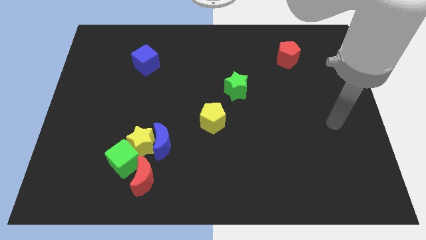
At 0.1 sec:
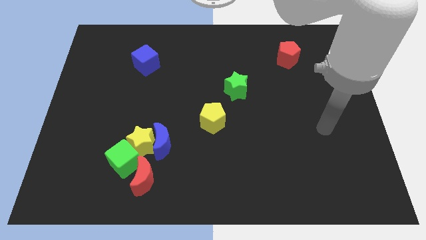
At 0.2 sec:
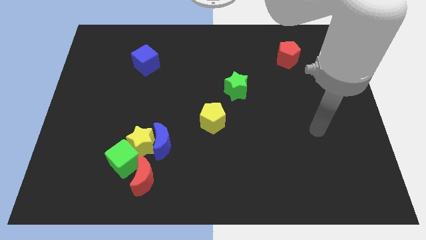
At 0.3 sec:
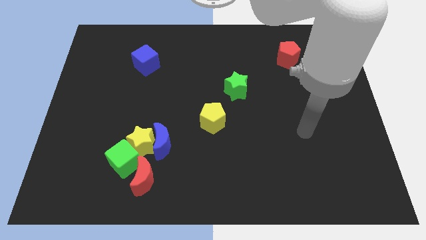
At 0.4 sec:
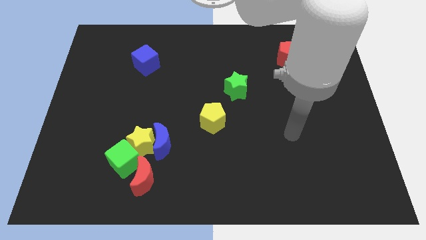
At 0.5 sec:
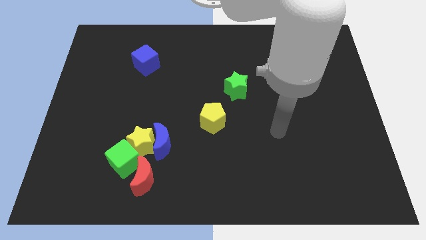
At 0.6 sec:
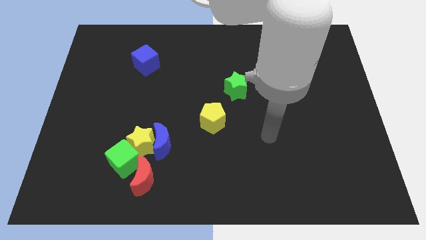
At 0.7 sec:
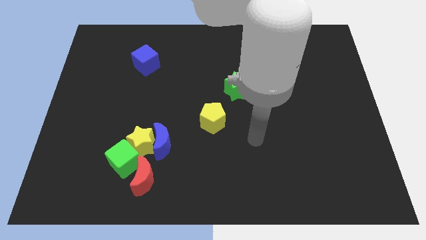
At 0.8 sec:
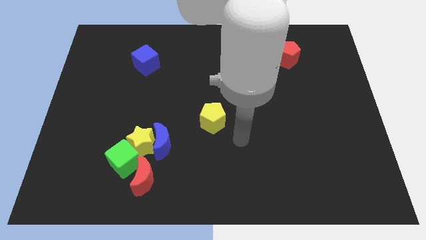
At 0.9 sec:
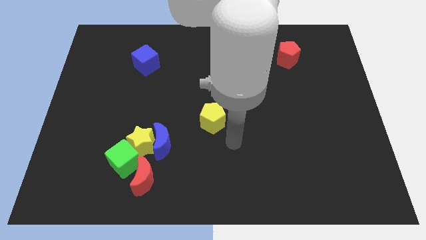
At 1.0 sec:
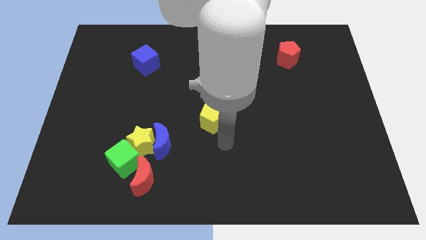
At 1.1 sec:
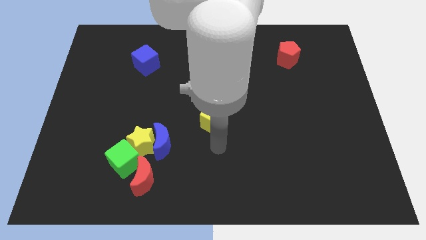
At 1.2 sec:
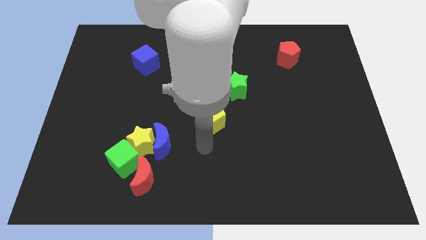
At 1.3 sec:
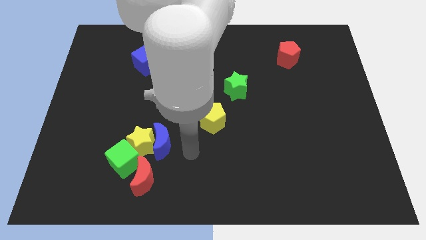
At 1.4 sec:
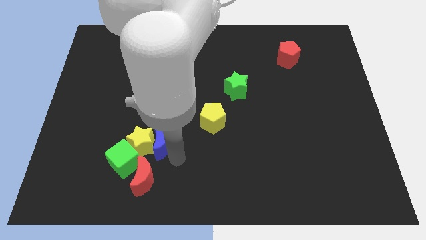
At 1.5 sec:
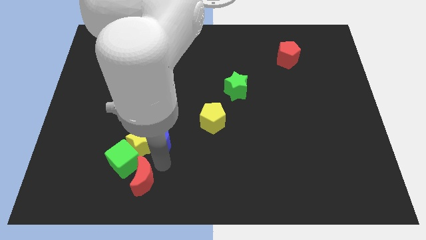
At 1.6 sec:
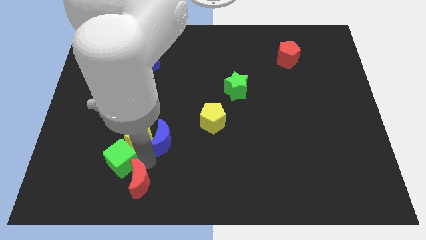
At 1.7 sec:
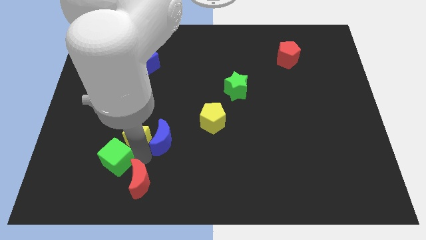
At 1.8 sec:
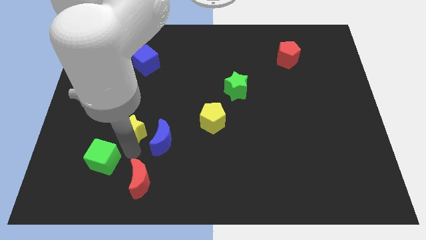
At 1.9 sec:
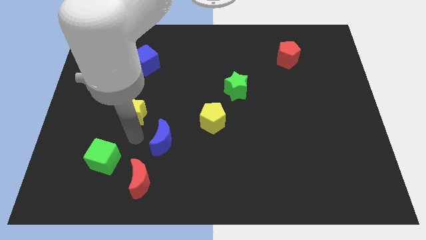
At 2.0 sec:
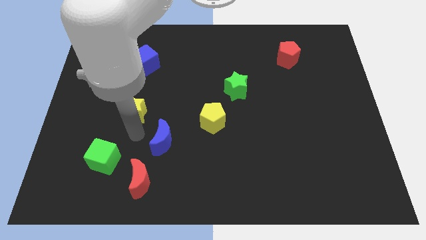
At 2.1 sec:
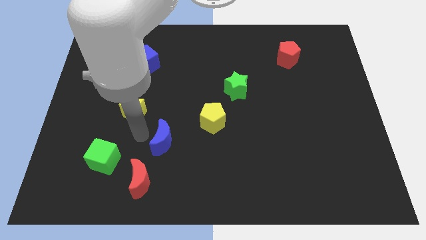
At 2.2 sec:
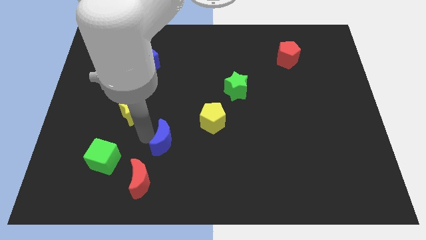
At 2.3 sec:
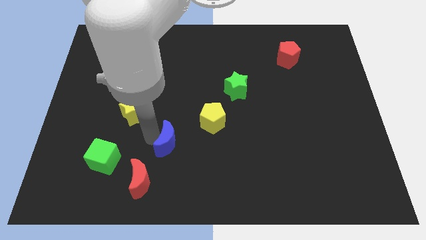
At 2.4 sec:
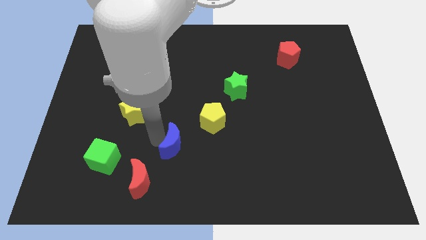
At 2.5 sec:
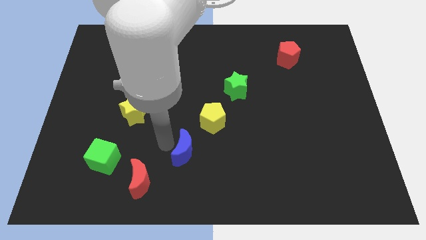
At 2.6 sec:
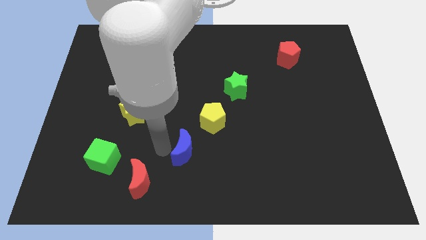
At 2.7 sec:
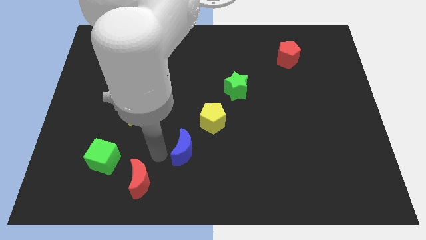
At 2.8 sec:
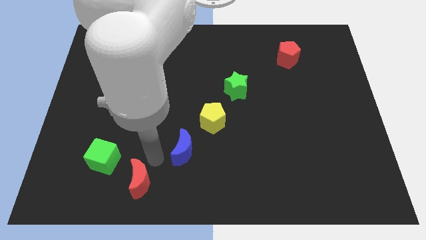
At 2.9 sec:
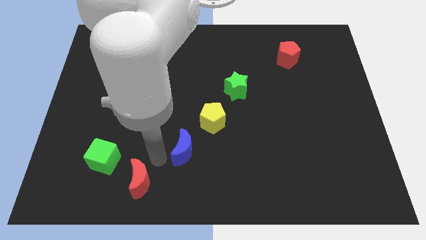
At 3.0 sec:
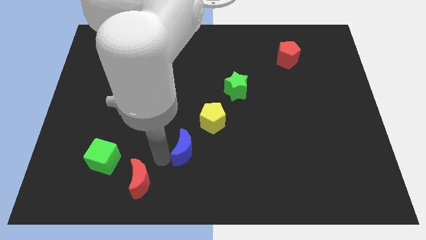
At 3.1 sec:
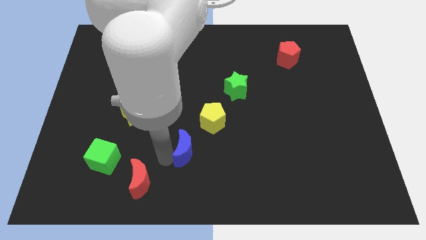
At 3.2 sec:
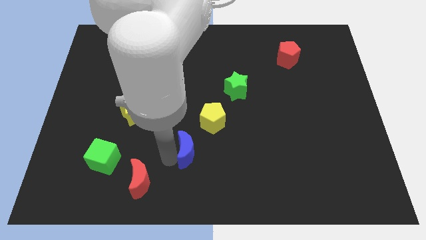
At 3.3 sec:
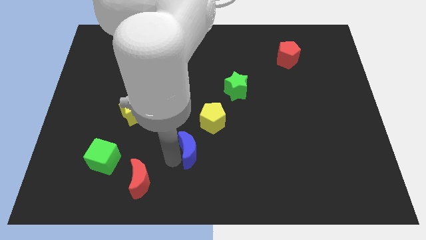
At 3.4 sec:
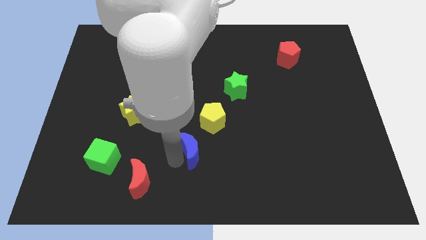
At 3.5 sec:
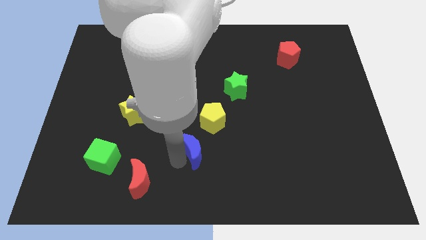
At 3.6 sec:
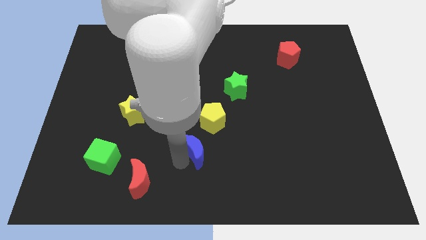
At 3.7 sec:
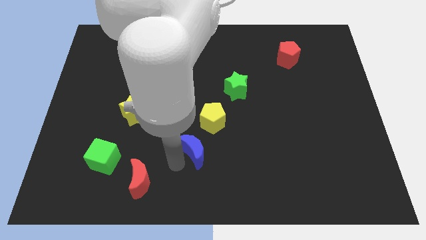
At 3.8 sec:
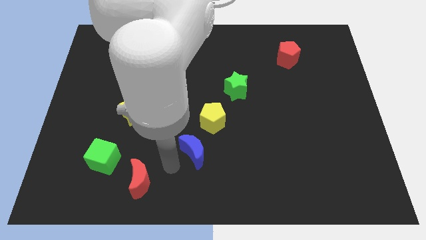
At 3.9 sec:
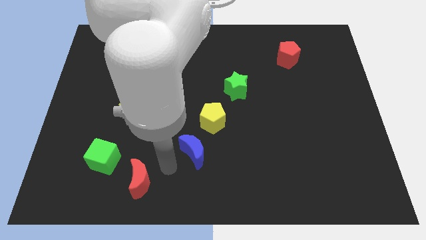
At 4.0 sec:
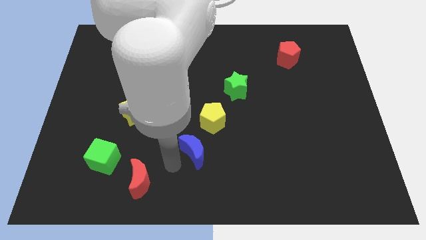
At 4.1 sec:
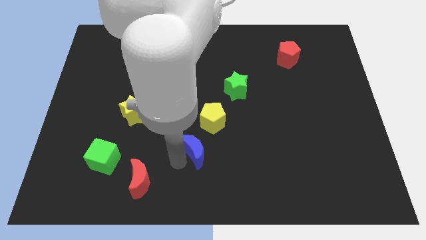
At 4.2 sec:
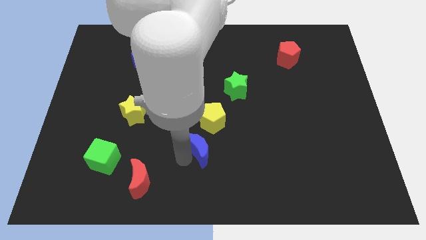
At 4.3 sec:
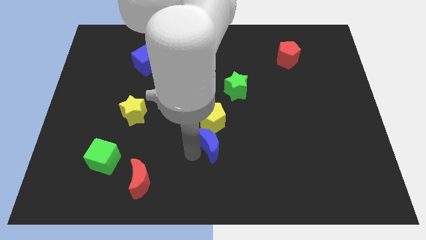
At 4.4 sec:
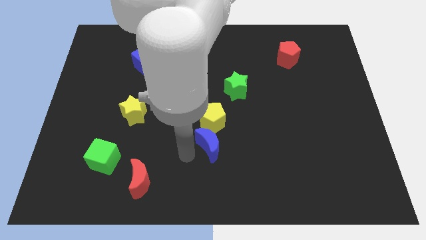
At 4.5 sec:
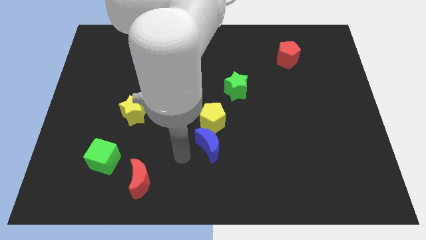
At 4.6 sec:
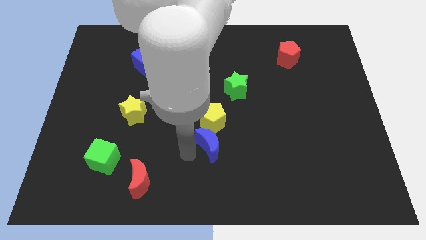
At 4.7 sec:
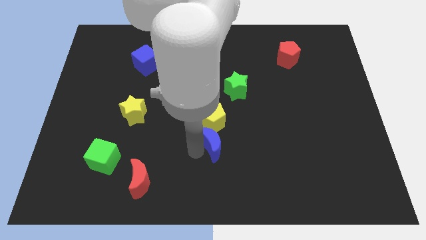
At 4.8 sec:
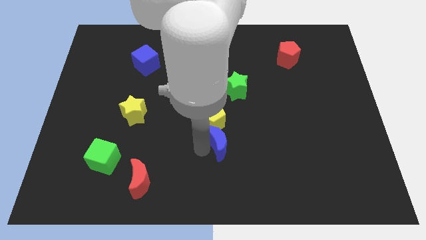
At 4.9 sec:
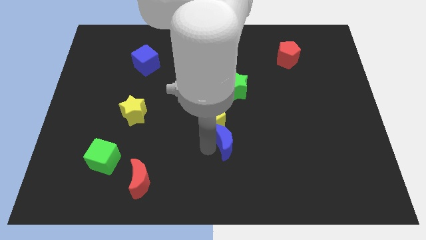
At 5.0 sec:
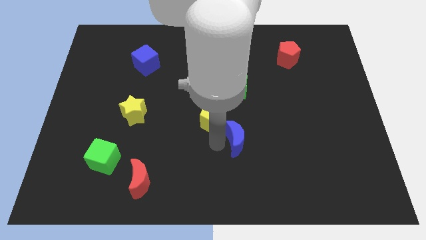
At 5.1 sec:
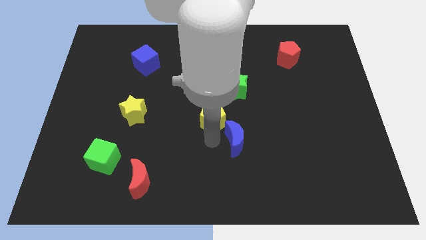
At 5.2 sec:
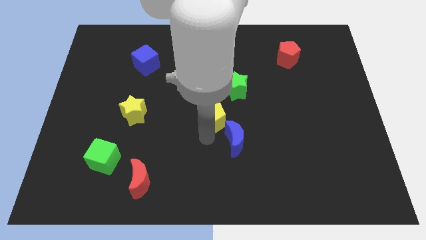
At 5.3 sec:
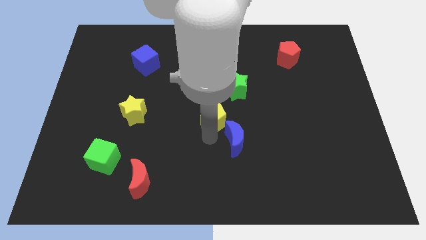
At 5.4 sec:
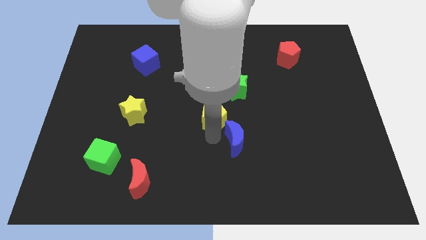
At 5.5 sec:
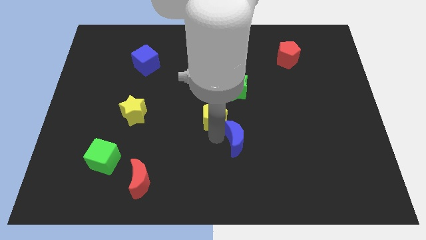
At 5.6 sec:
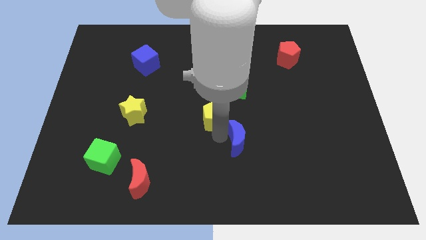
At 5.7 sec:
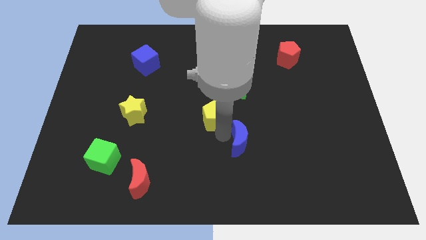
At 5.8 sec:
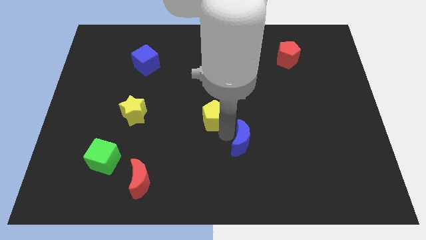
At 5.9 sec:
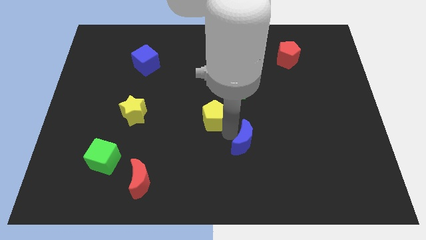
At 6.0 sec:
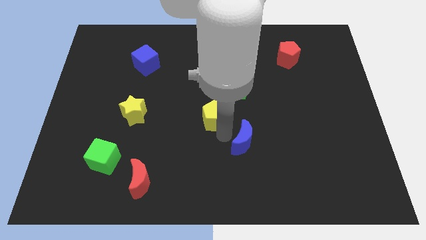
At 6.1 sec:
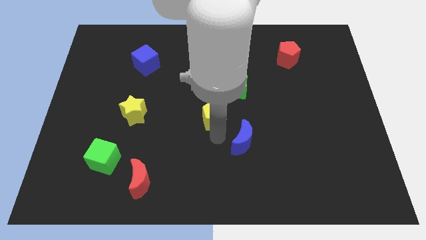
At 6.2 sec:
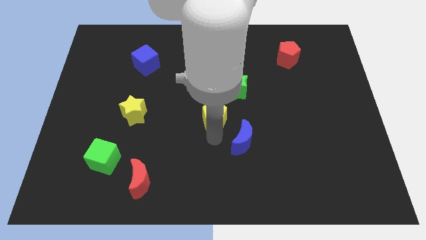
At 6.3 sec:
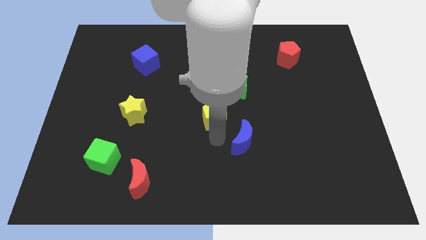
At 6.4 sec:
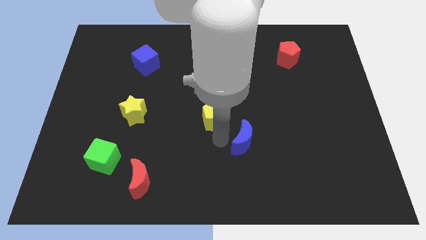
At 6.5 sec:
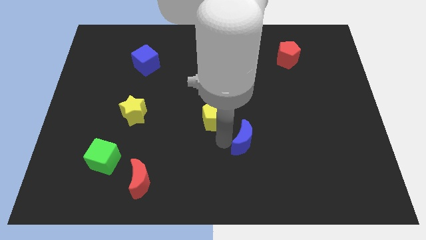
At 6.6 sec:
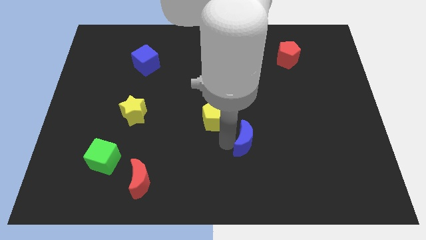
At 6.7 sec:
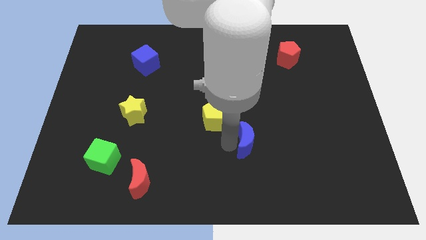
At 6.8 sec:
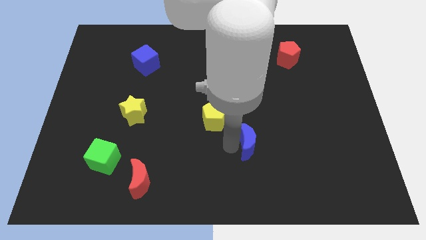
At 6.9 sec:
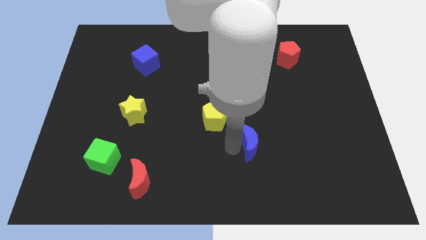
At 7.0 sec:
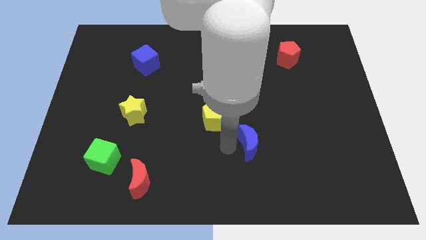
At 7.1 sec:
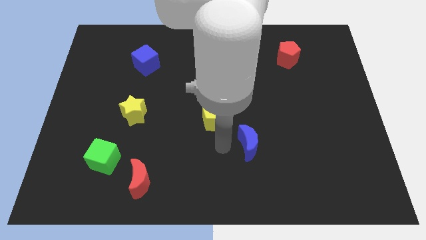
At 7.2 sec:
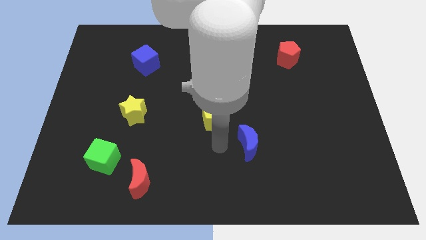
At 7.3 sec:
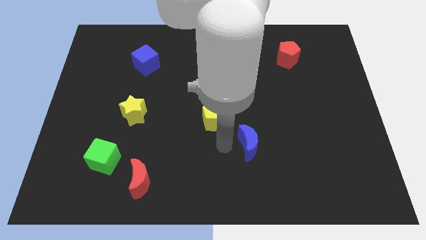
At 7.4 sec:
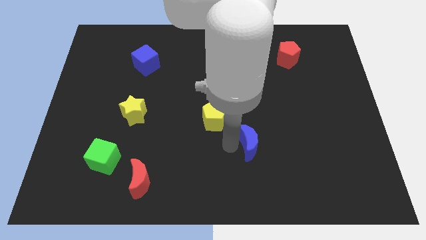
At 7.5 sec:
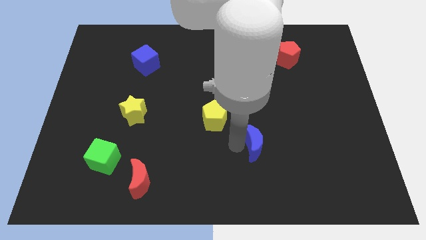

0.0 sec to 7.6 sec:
push the blue moon to the right

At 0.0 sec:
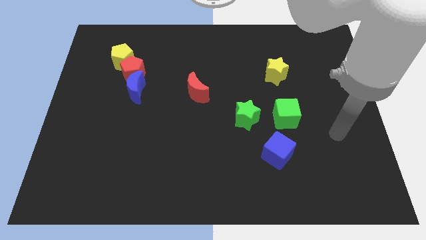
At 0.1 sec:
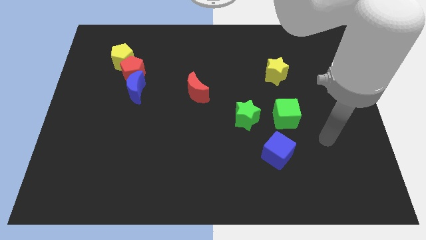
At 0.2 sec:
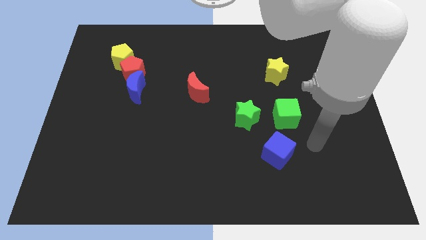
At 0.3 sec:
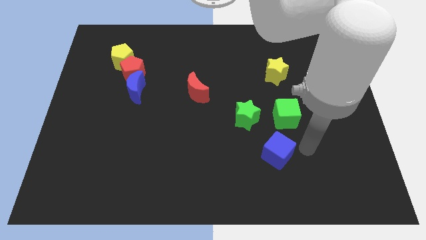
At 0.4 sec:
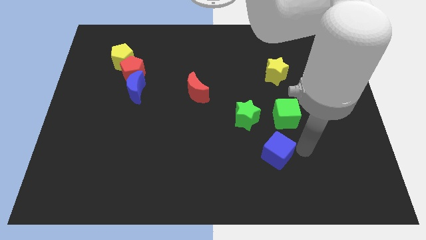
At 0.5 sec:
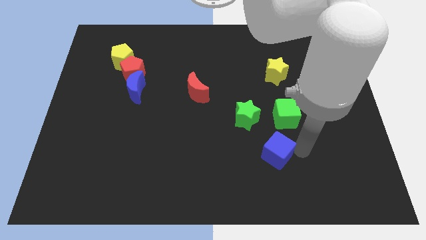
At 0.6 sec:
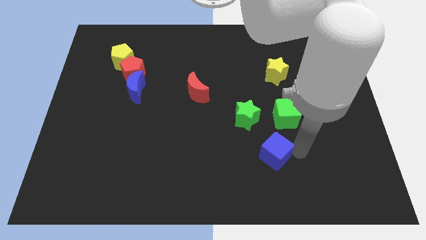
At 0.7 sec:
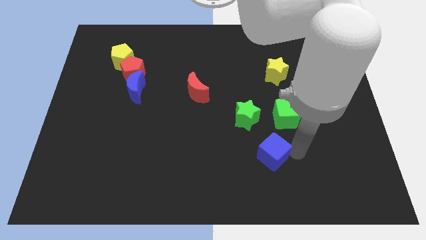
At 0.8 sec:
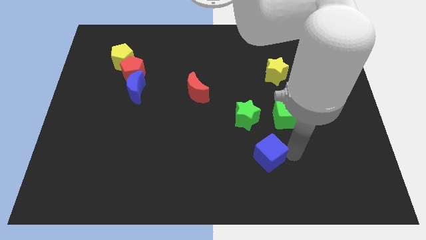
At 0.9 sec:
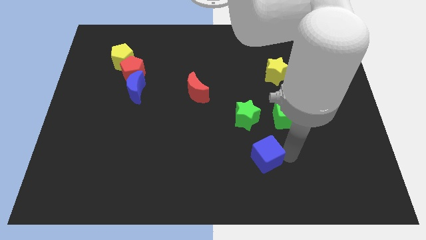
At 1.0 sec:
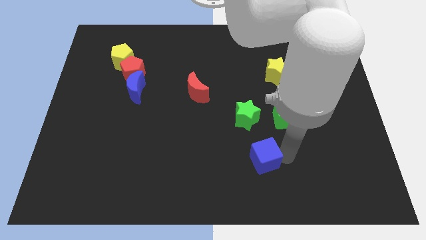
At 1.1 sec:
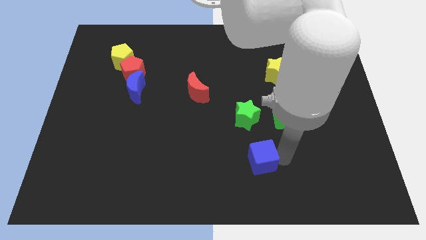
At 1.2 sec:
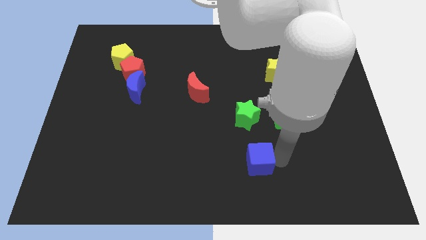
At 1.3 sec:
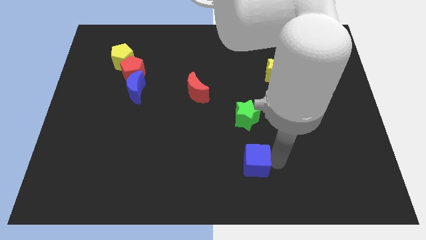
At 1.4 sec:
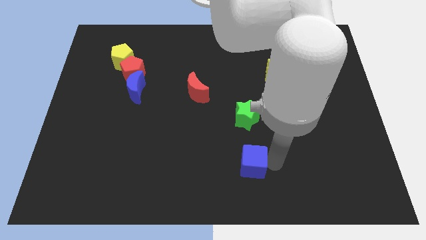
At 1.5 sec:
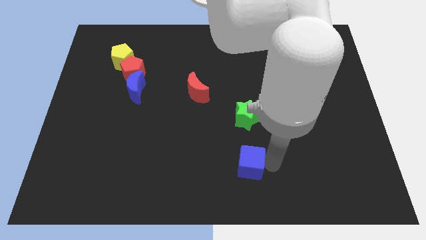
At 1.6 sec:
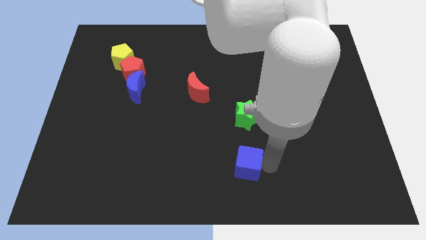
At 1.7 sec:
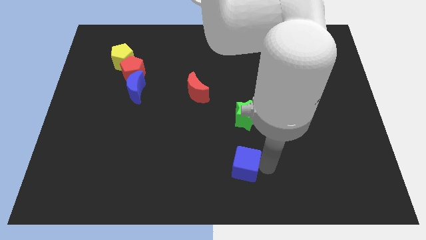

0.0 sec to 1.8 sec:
slide the blue cube a little bit left
